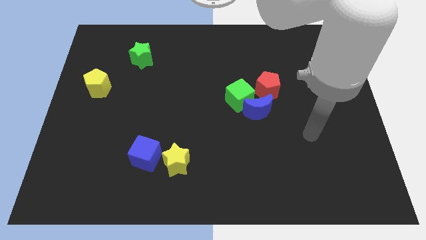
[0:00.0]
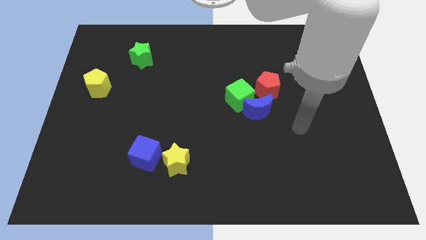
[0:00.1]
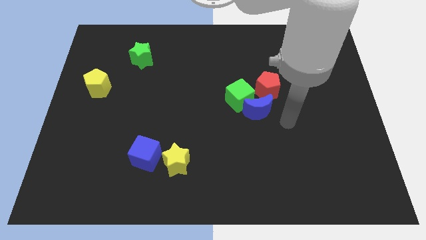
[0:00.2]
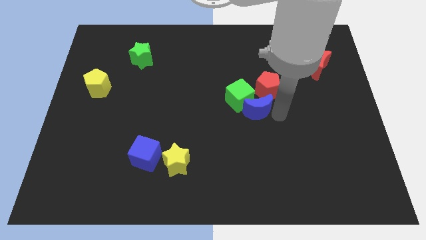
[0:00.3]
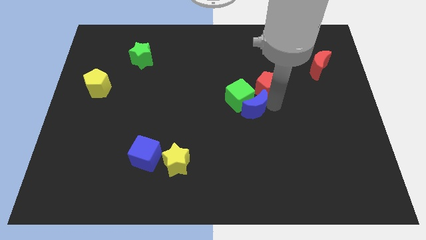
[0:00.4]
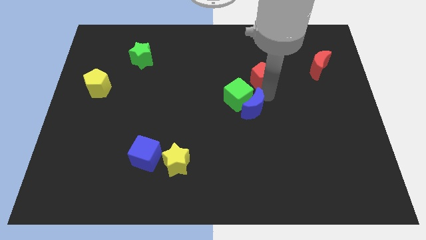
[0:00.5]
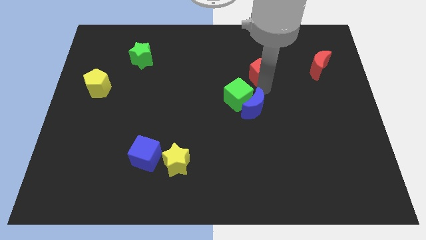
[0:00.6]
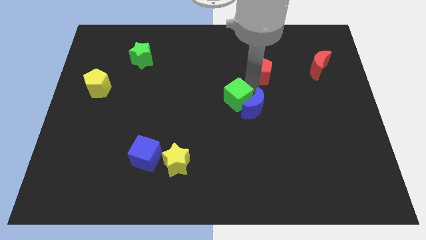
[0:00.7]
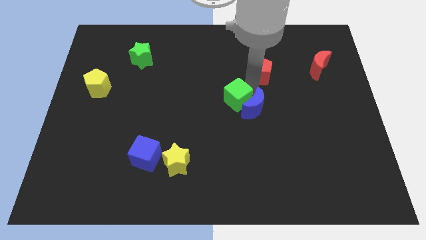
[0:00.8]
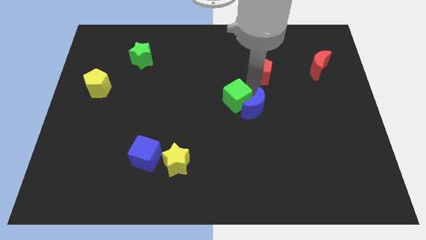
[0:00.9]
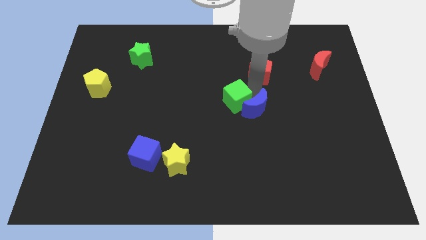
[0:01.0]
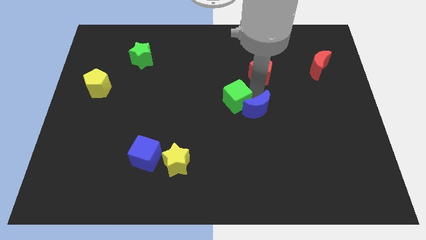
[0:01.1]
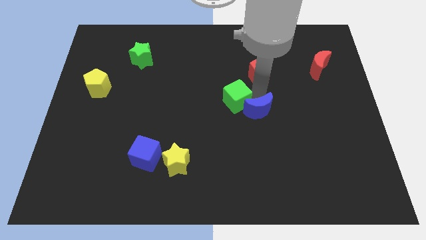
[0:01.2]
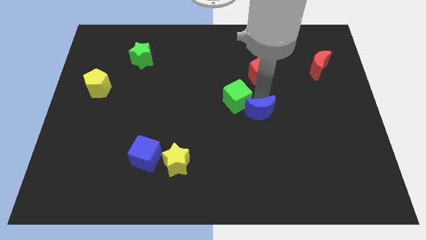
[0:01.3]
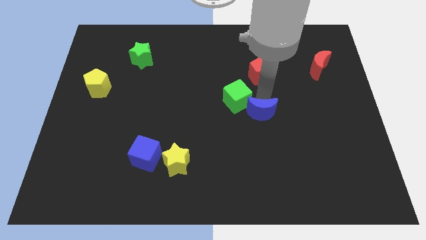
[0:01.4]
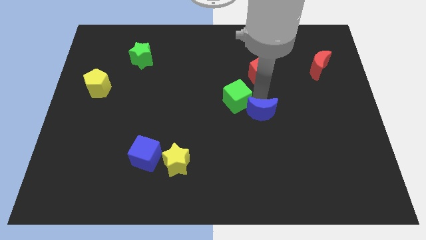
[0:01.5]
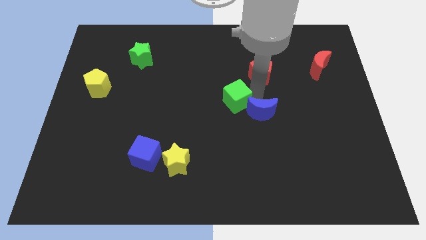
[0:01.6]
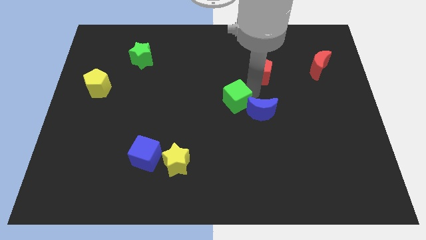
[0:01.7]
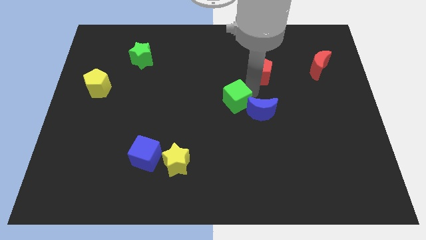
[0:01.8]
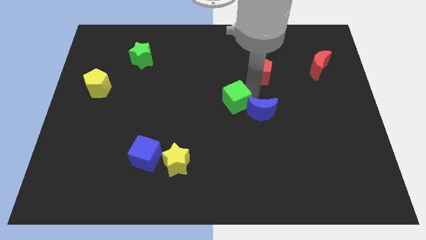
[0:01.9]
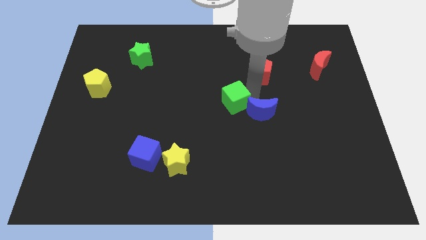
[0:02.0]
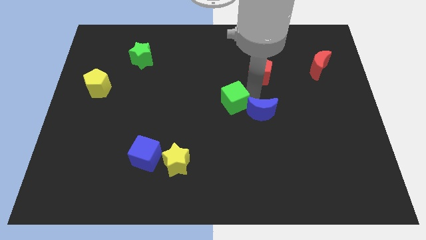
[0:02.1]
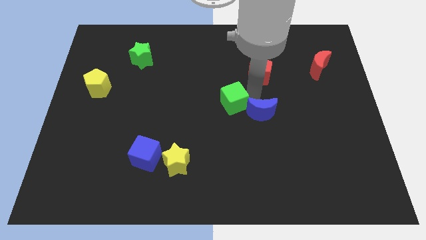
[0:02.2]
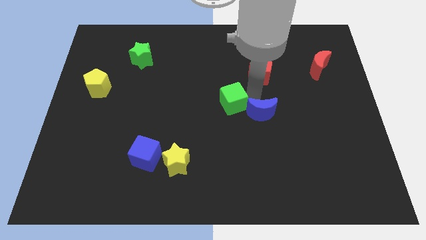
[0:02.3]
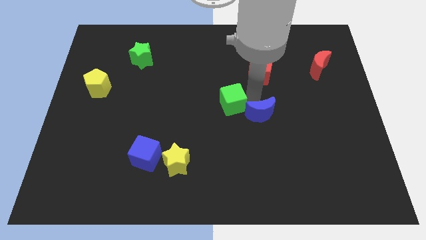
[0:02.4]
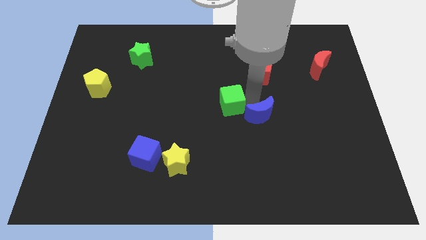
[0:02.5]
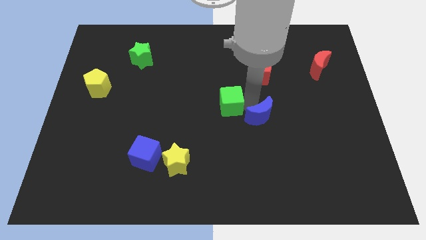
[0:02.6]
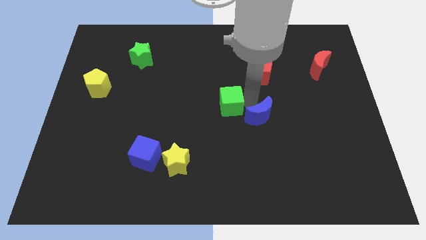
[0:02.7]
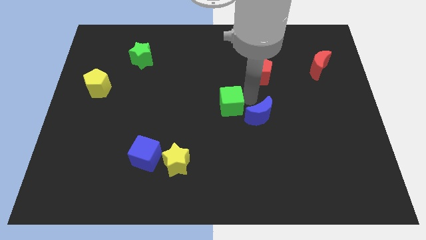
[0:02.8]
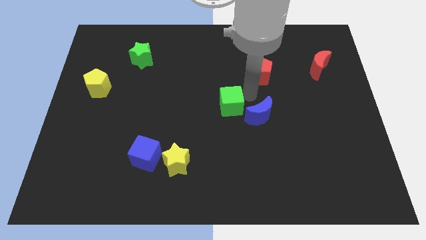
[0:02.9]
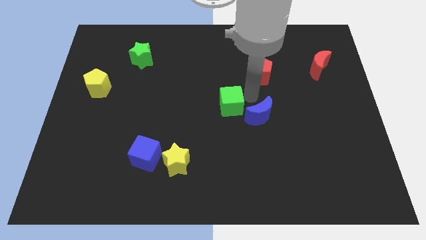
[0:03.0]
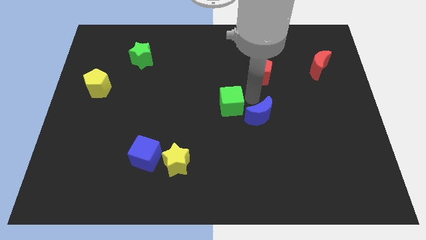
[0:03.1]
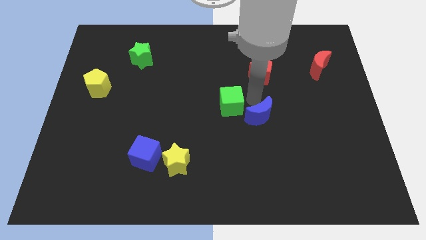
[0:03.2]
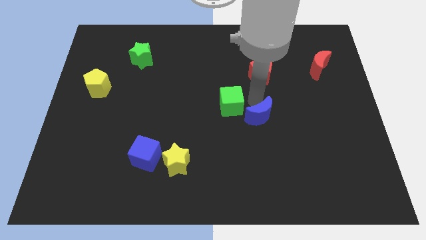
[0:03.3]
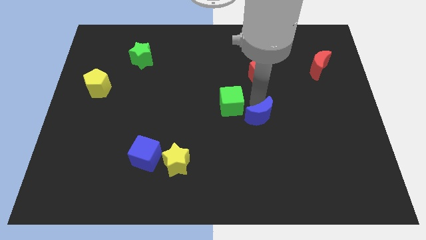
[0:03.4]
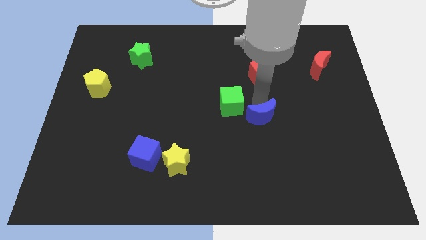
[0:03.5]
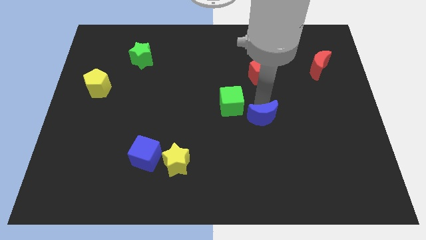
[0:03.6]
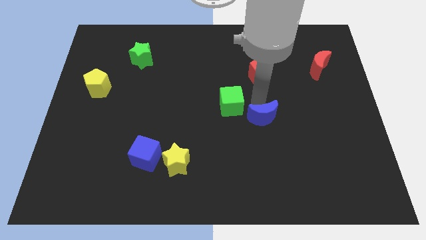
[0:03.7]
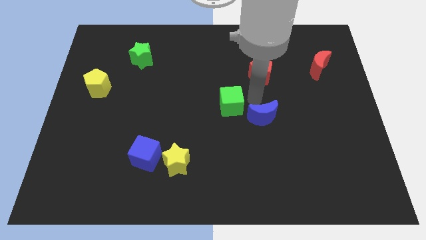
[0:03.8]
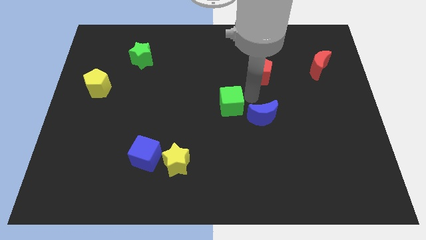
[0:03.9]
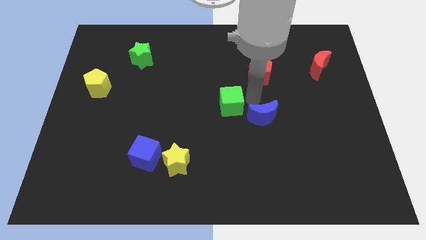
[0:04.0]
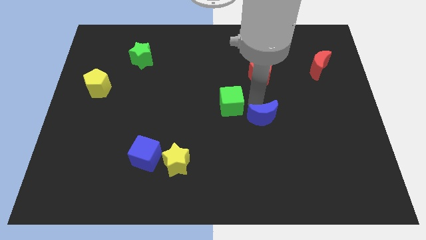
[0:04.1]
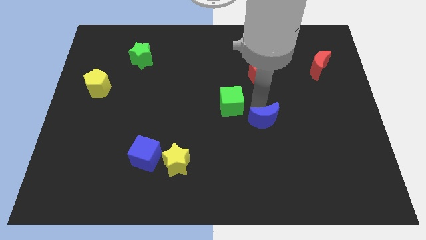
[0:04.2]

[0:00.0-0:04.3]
separate the blue moon from the green cube and red pentagon

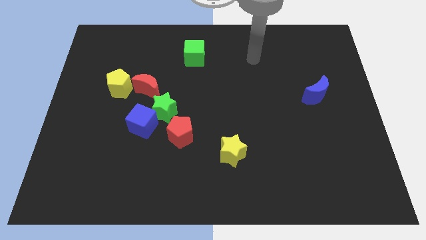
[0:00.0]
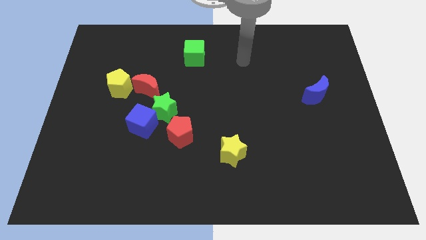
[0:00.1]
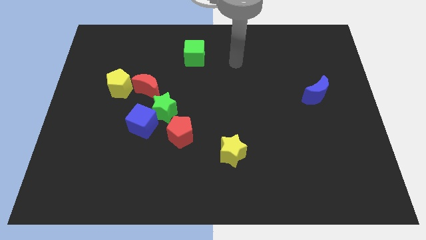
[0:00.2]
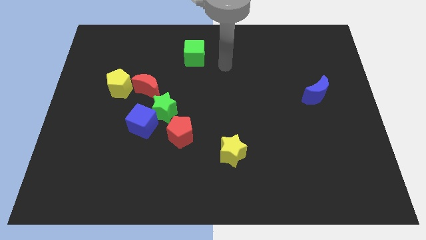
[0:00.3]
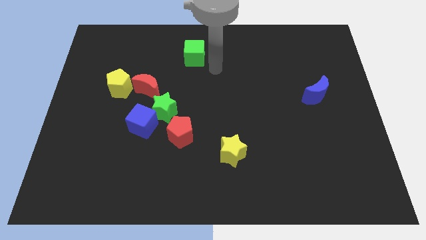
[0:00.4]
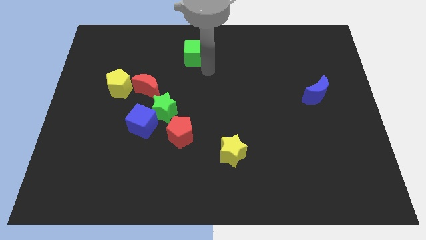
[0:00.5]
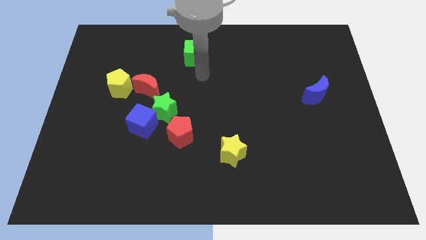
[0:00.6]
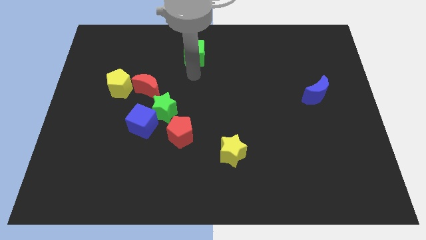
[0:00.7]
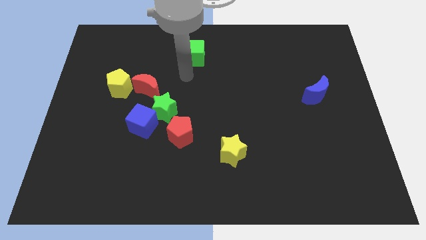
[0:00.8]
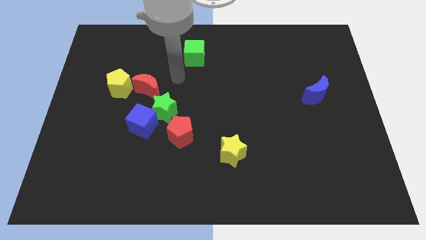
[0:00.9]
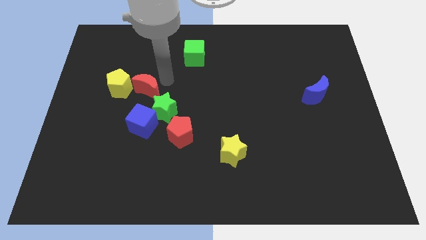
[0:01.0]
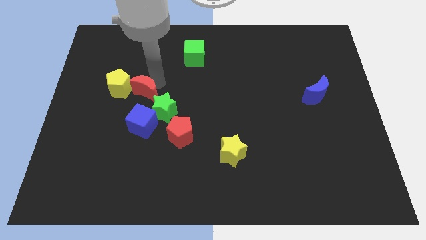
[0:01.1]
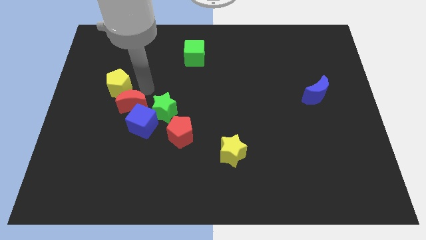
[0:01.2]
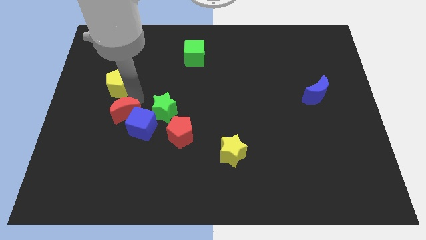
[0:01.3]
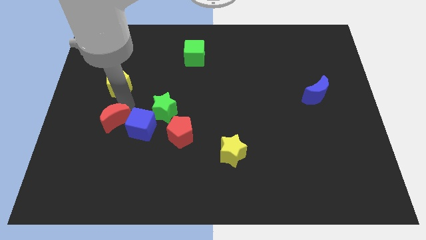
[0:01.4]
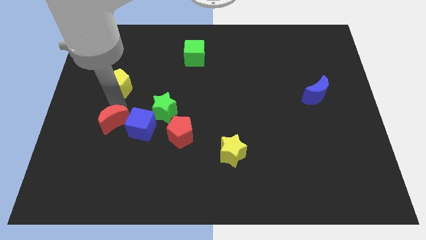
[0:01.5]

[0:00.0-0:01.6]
separate the yellow pentagon from the red moon

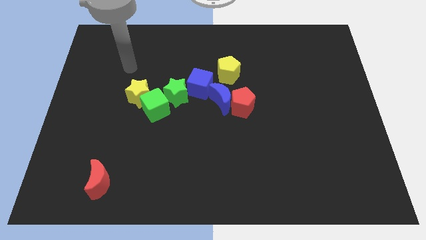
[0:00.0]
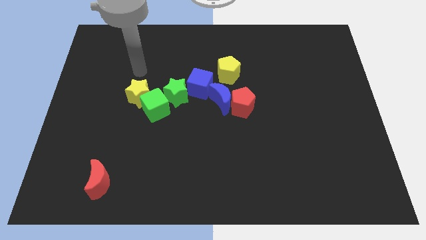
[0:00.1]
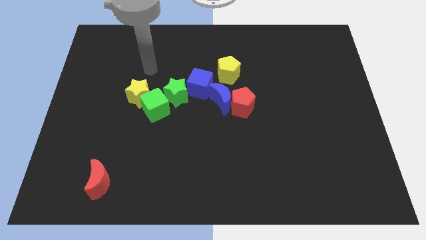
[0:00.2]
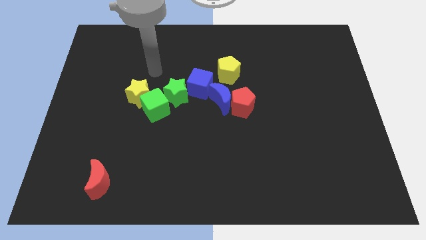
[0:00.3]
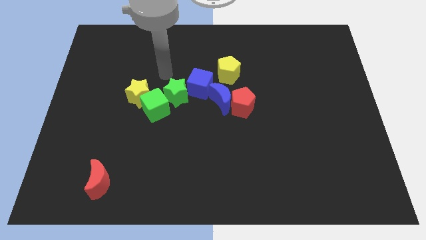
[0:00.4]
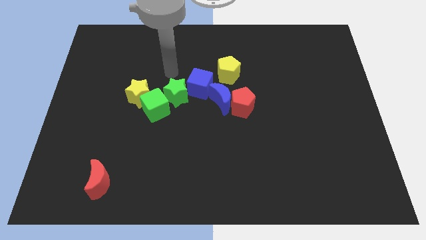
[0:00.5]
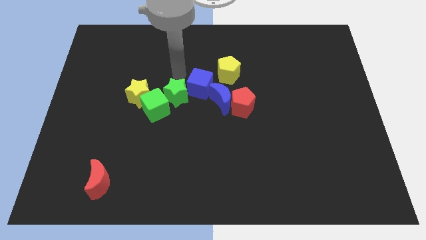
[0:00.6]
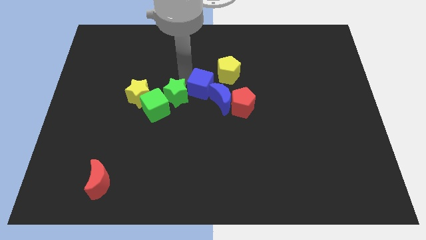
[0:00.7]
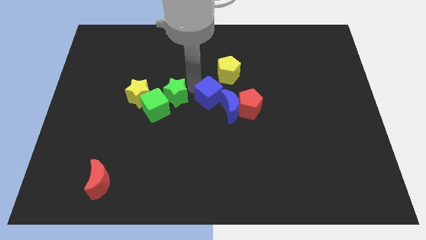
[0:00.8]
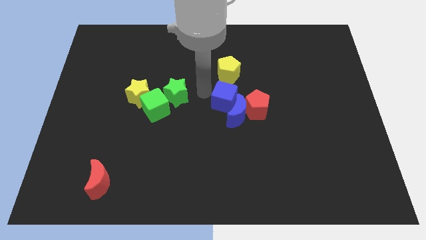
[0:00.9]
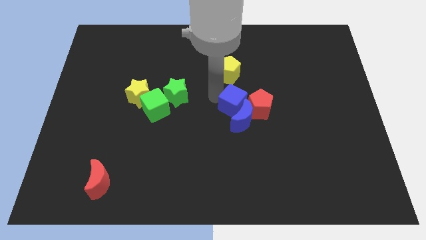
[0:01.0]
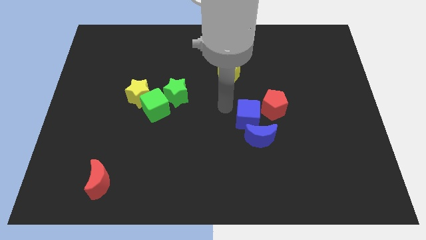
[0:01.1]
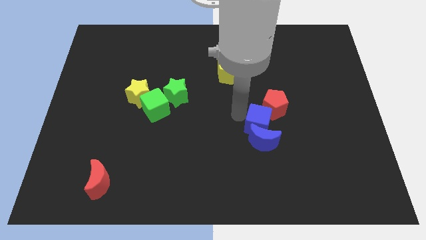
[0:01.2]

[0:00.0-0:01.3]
pull the red pentagon apart from the blue moon

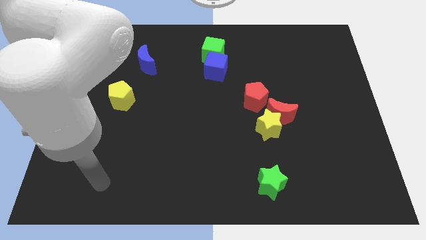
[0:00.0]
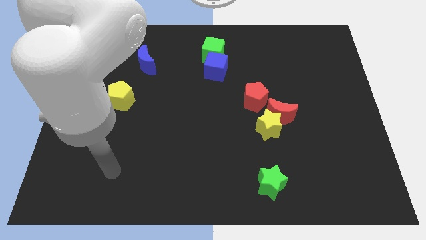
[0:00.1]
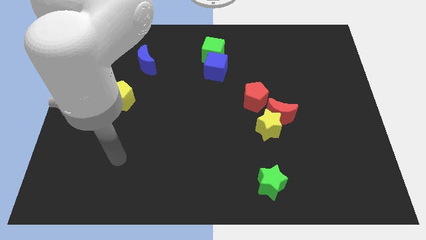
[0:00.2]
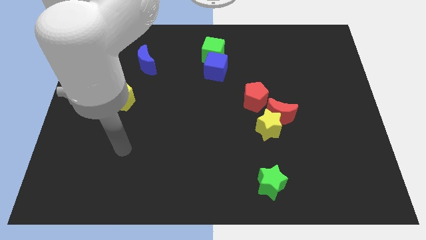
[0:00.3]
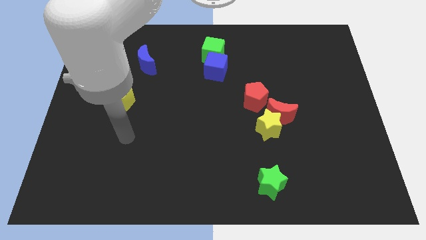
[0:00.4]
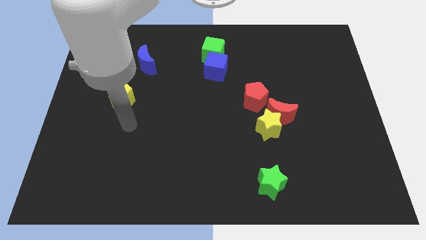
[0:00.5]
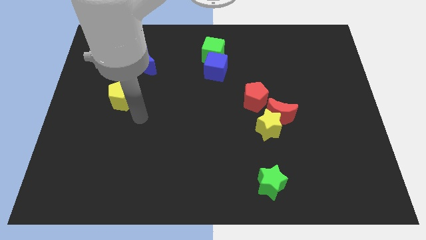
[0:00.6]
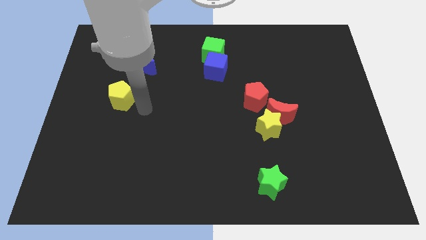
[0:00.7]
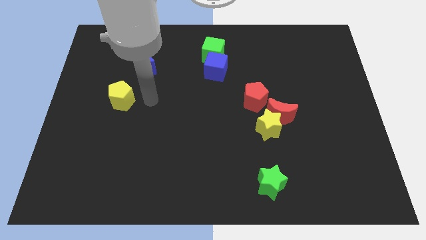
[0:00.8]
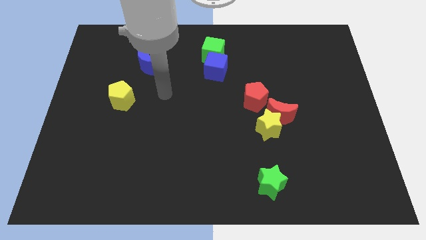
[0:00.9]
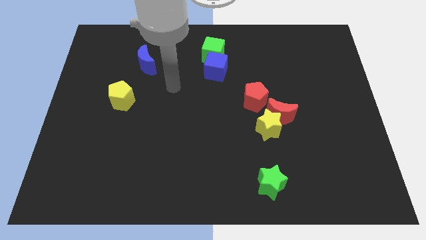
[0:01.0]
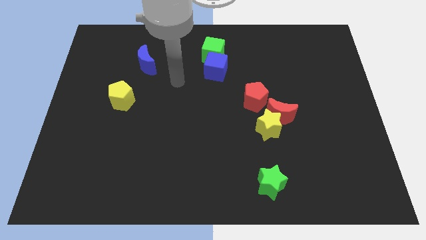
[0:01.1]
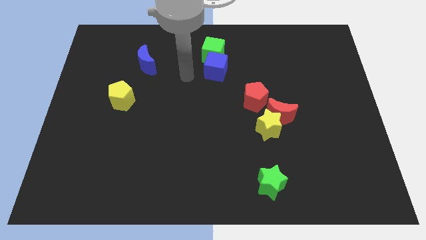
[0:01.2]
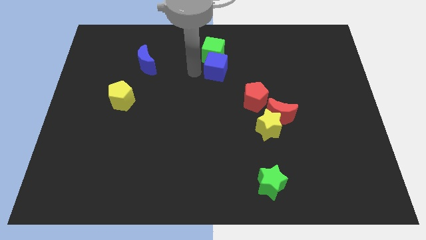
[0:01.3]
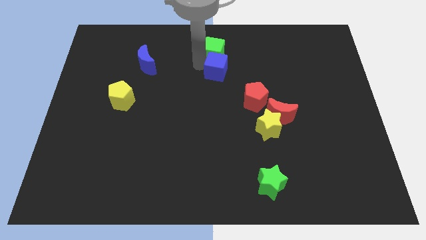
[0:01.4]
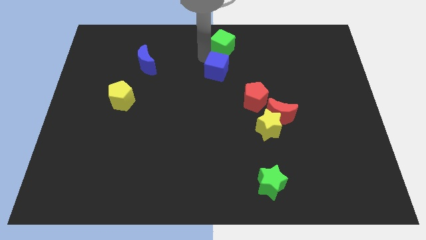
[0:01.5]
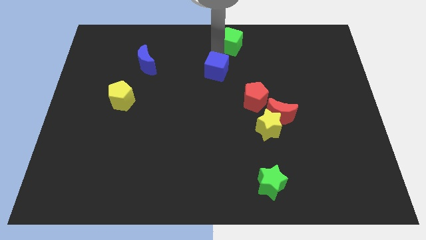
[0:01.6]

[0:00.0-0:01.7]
pull the blue cube apart from the green cube

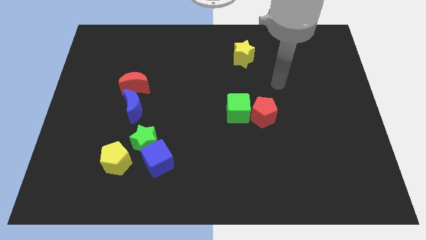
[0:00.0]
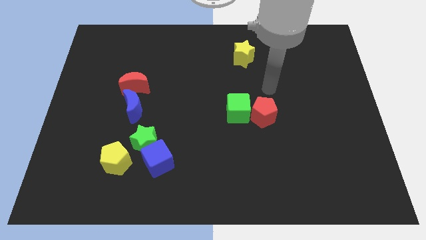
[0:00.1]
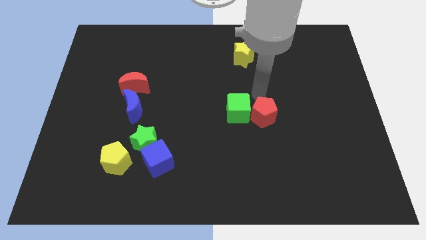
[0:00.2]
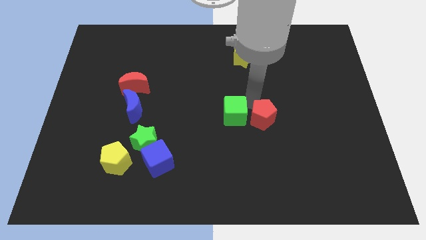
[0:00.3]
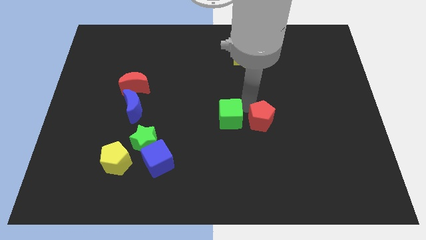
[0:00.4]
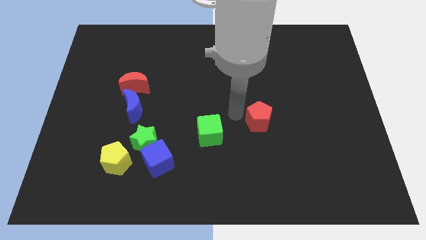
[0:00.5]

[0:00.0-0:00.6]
separate the red pentagon from the green cube
